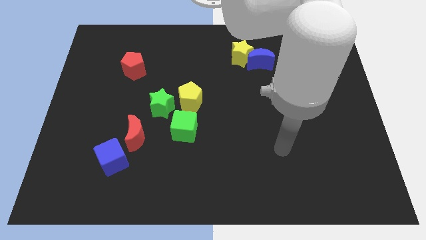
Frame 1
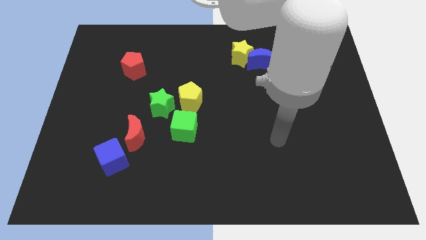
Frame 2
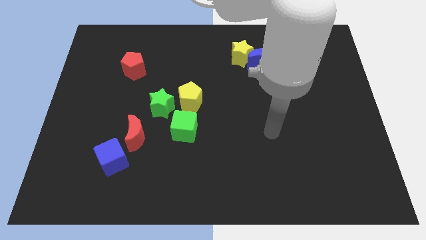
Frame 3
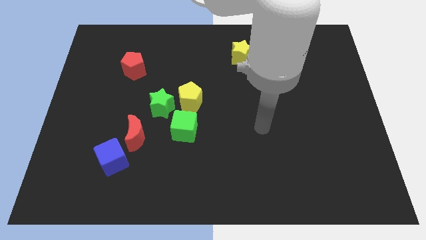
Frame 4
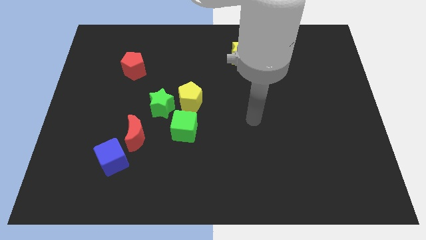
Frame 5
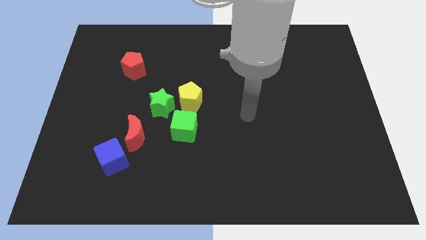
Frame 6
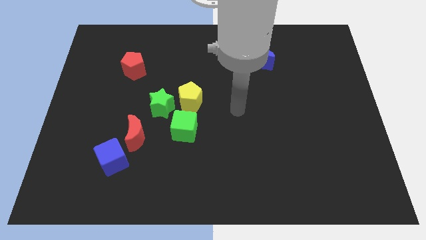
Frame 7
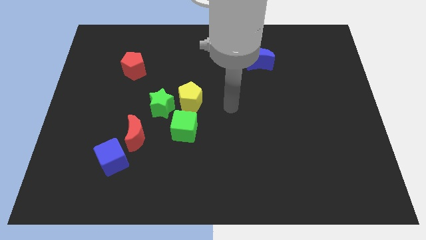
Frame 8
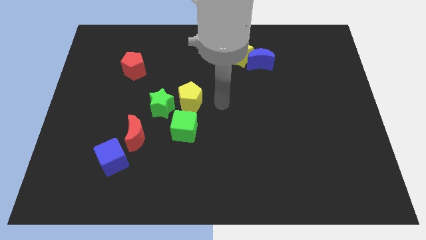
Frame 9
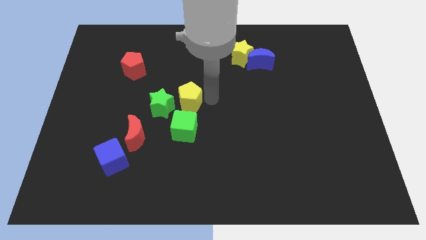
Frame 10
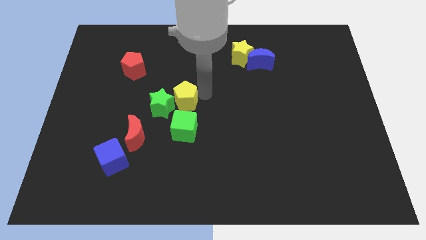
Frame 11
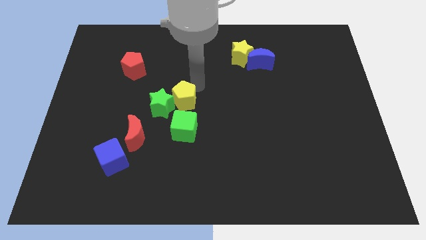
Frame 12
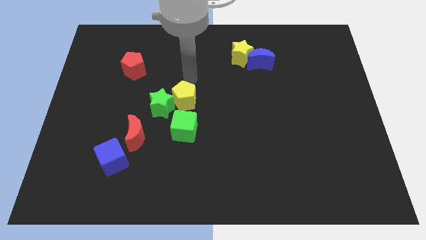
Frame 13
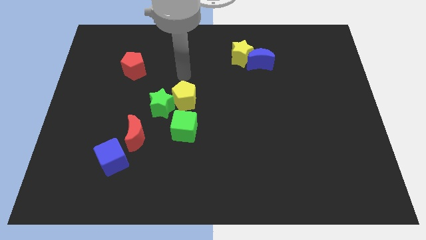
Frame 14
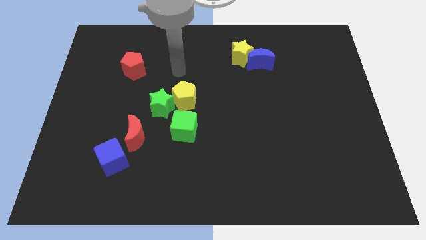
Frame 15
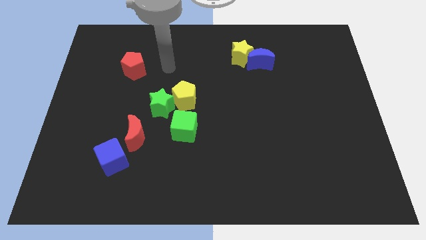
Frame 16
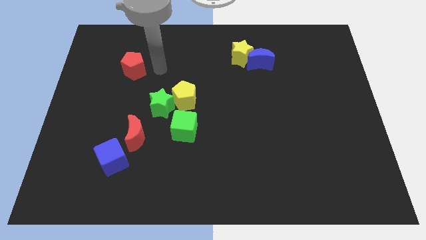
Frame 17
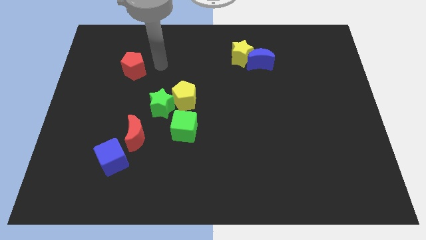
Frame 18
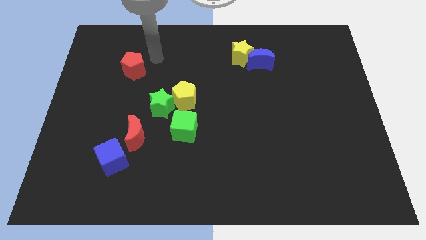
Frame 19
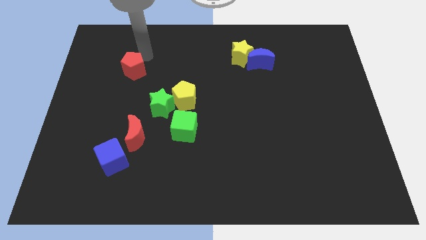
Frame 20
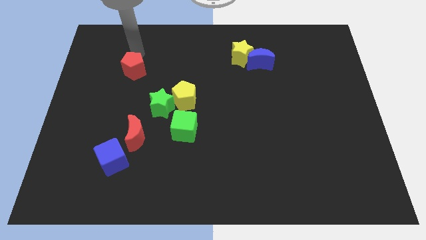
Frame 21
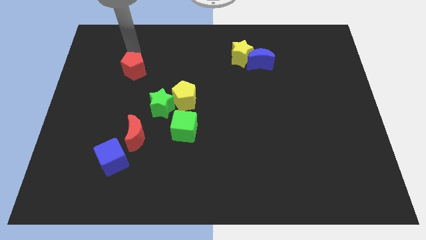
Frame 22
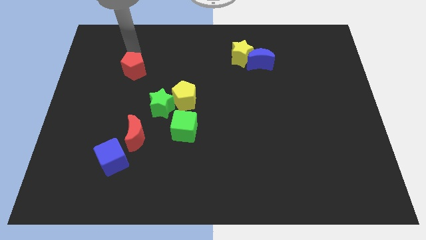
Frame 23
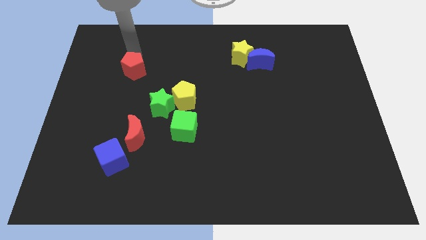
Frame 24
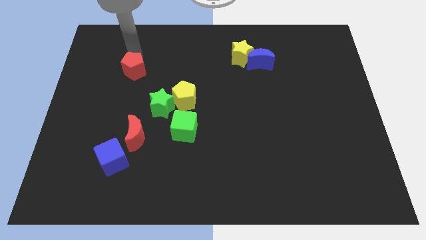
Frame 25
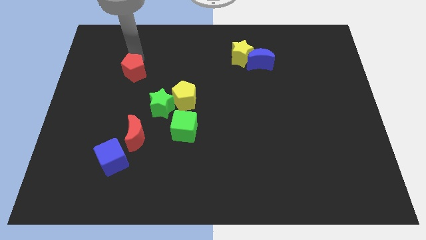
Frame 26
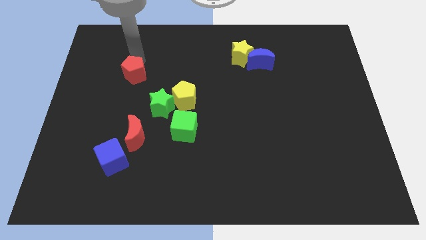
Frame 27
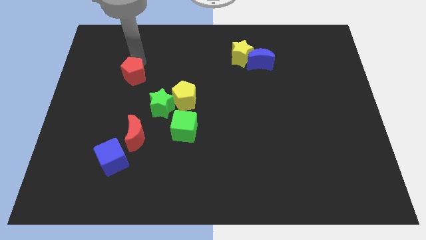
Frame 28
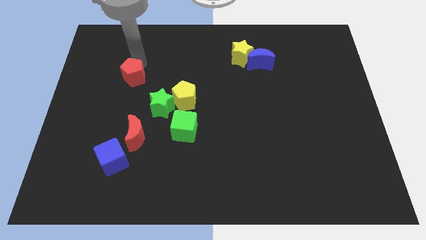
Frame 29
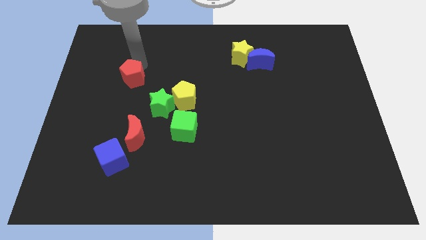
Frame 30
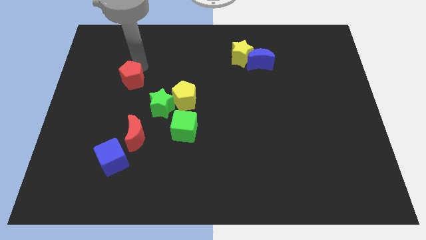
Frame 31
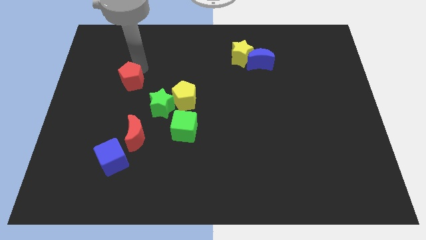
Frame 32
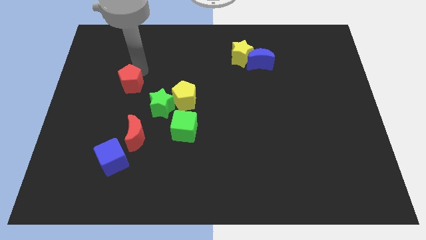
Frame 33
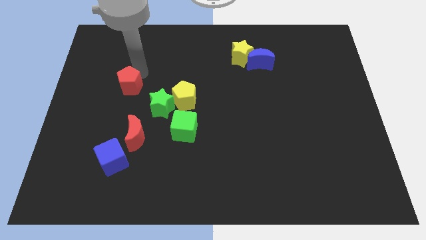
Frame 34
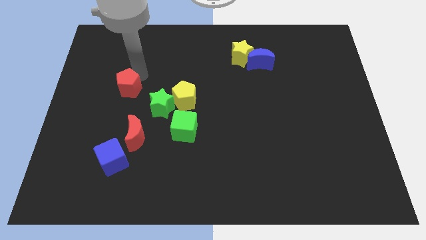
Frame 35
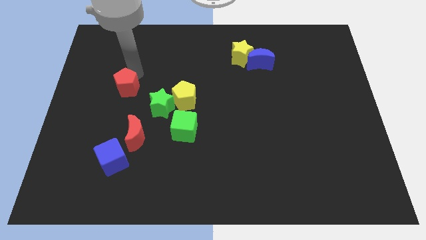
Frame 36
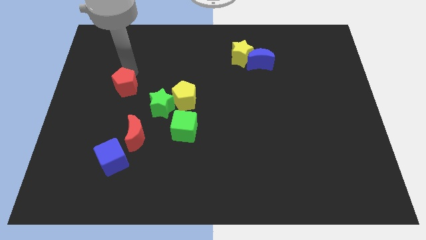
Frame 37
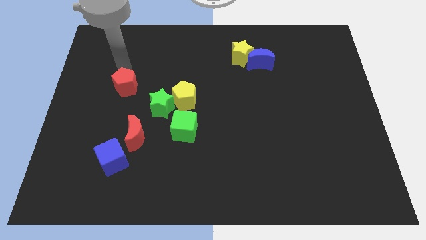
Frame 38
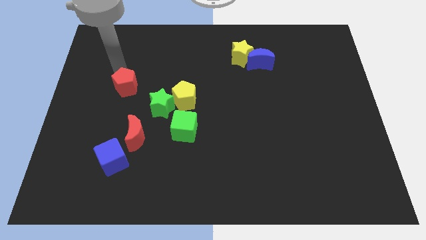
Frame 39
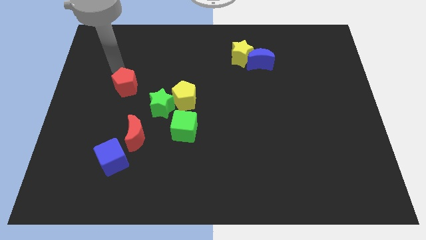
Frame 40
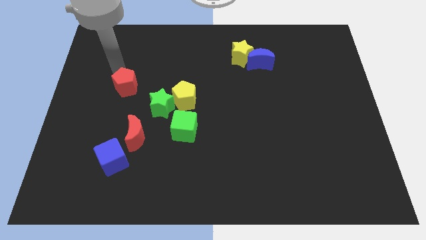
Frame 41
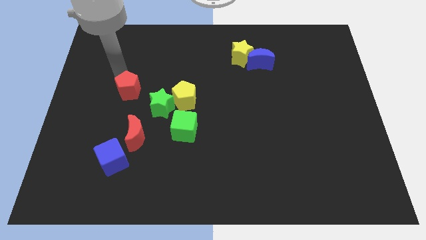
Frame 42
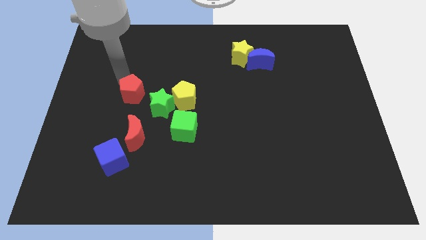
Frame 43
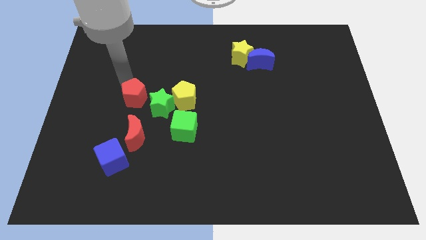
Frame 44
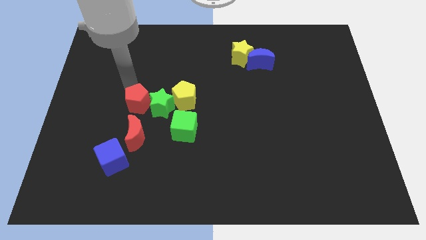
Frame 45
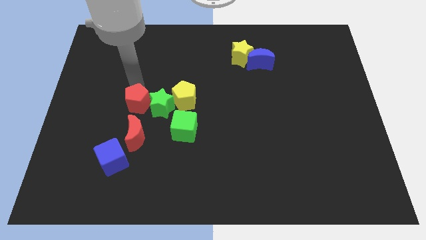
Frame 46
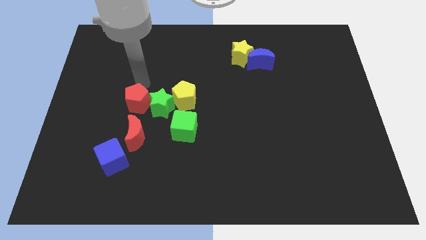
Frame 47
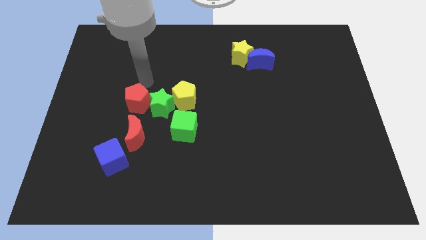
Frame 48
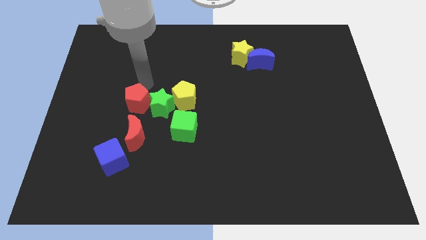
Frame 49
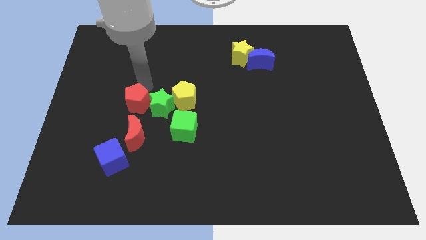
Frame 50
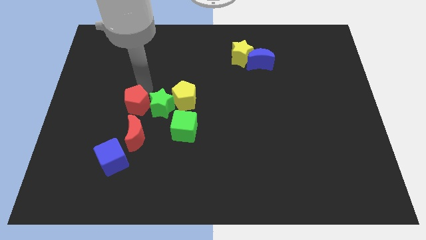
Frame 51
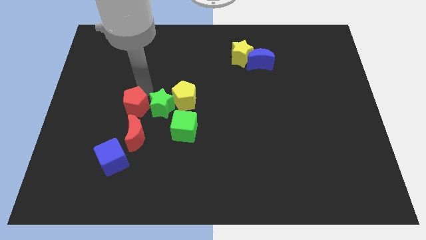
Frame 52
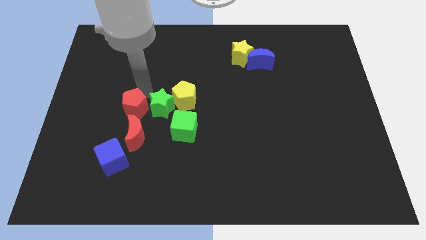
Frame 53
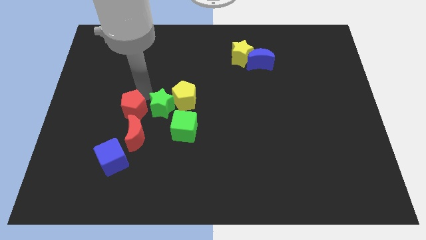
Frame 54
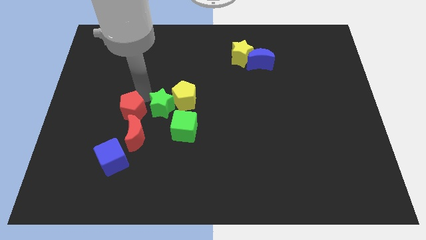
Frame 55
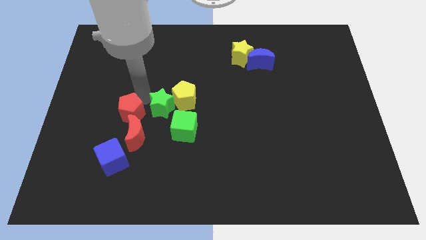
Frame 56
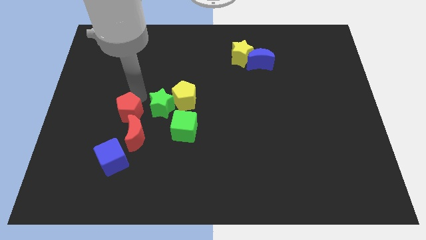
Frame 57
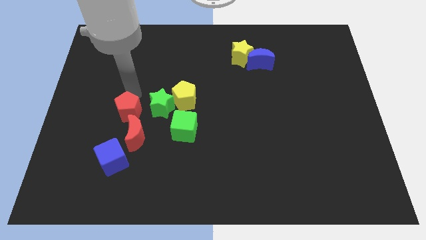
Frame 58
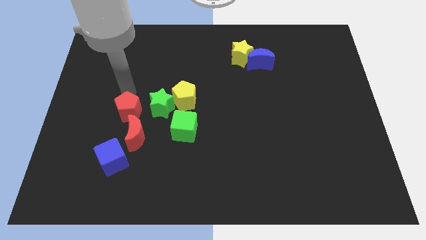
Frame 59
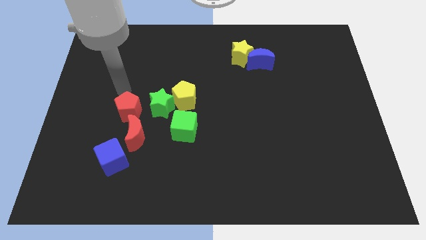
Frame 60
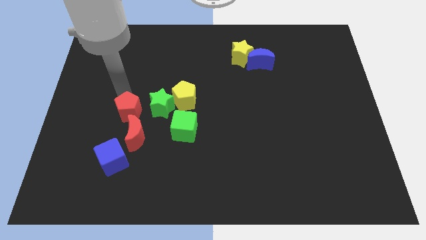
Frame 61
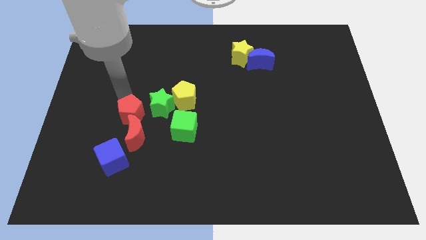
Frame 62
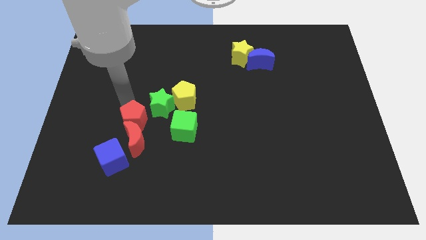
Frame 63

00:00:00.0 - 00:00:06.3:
push the red pentagon to the red moon
